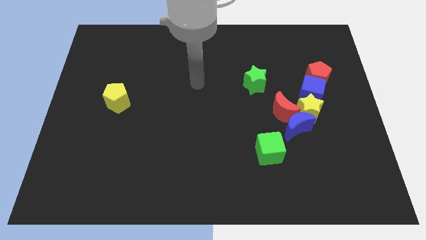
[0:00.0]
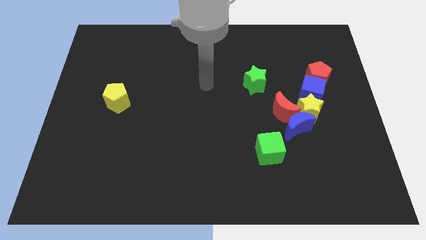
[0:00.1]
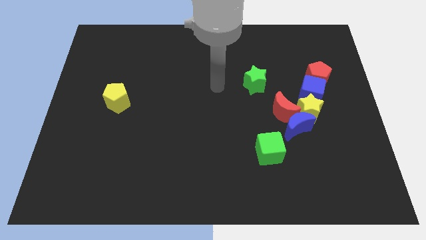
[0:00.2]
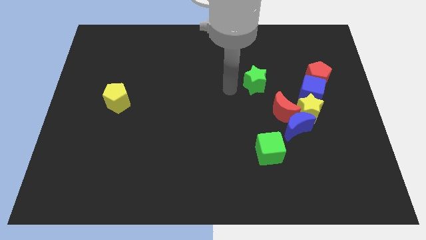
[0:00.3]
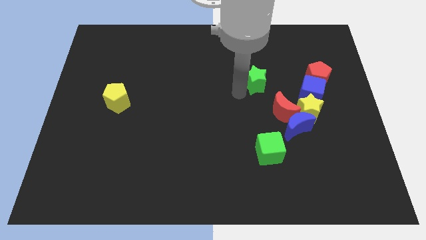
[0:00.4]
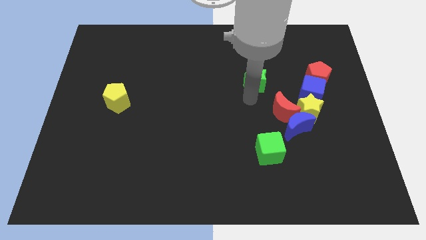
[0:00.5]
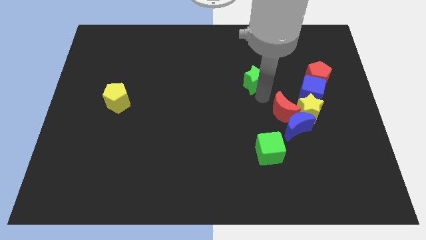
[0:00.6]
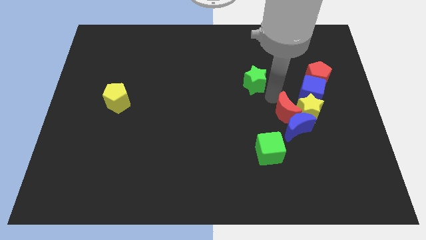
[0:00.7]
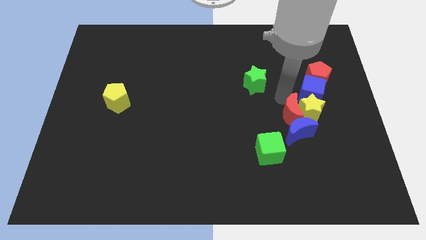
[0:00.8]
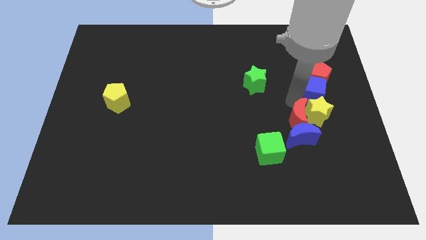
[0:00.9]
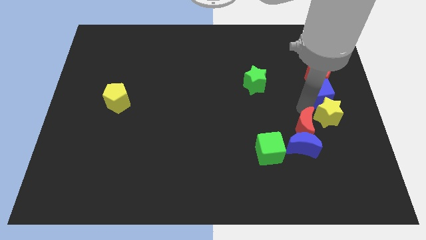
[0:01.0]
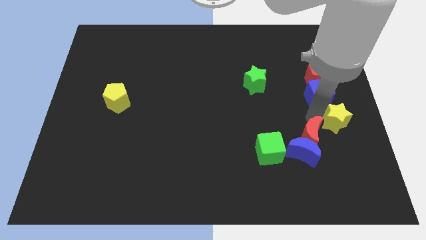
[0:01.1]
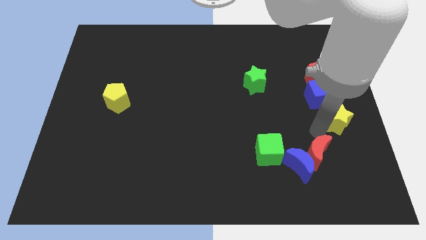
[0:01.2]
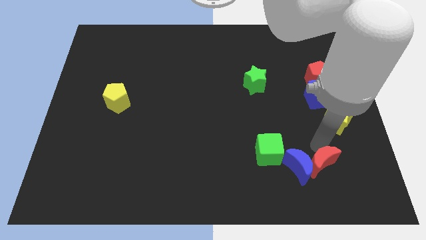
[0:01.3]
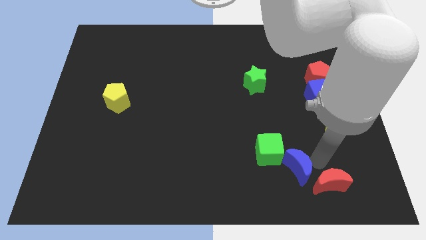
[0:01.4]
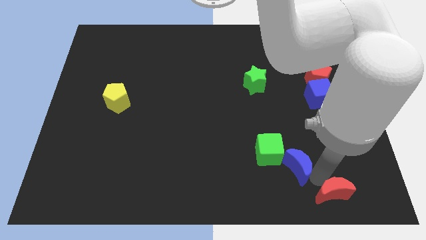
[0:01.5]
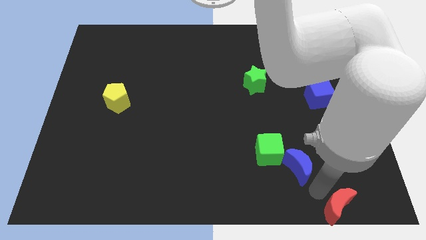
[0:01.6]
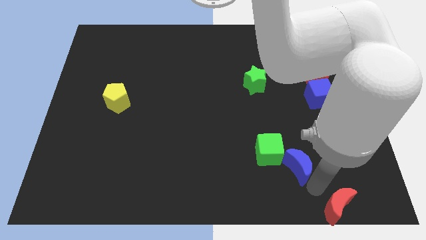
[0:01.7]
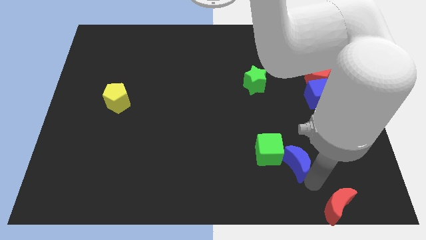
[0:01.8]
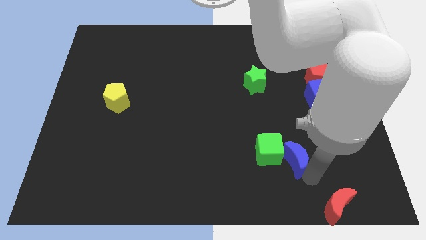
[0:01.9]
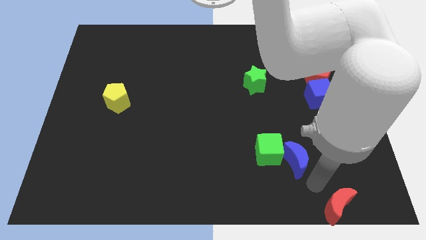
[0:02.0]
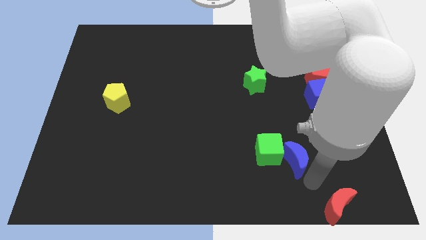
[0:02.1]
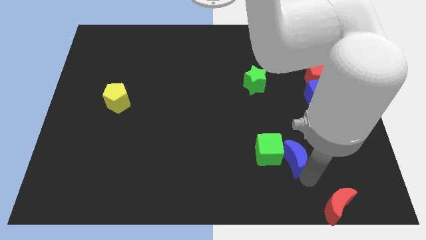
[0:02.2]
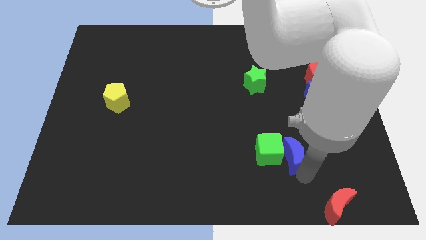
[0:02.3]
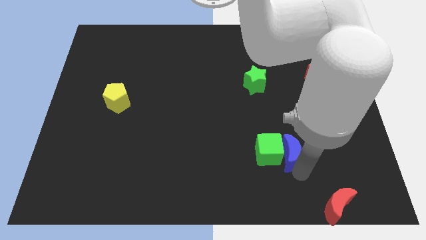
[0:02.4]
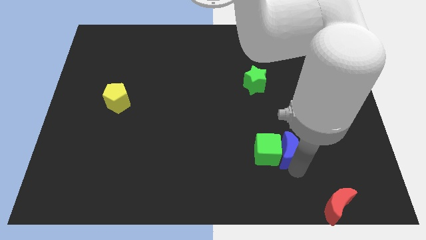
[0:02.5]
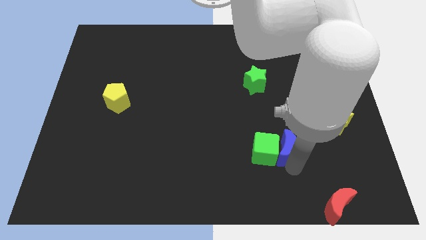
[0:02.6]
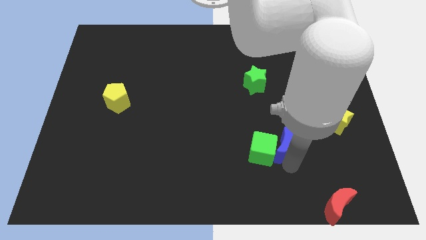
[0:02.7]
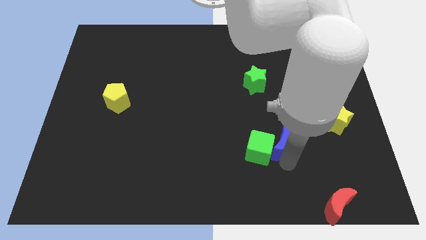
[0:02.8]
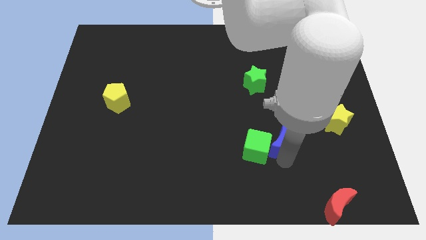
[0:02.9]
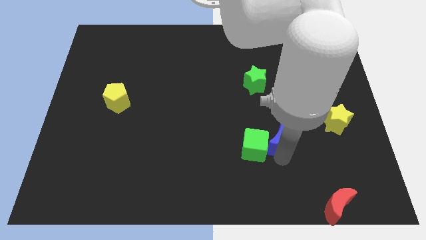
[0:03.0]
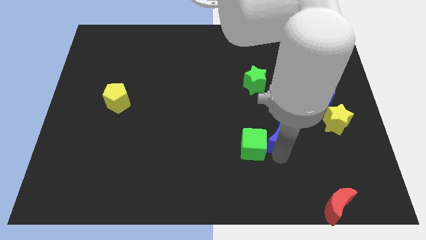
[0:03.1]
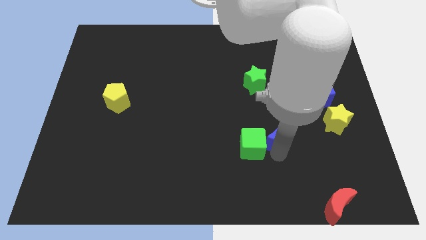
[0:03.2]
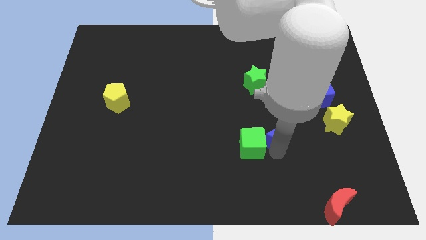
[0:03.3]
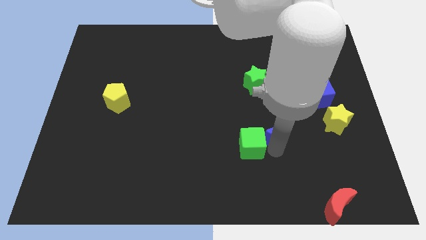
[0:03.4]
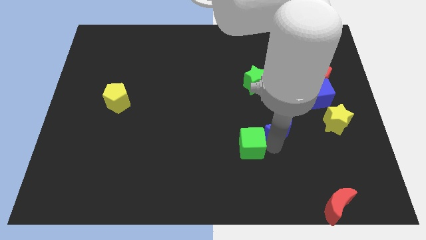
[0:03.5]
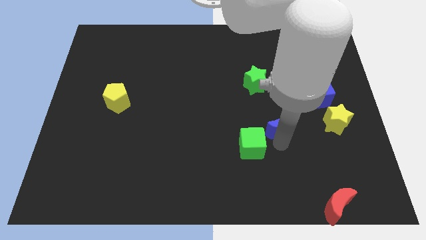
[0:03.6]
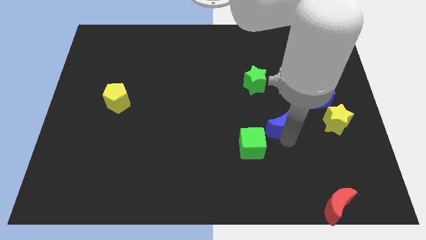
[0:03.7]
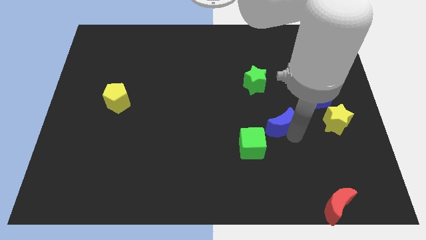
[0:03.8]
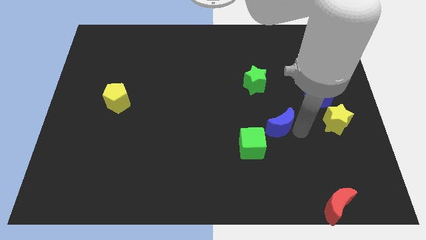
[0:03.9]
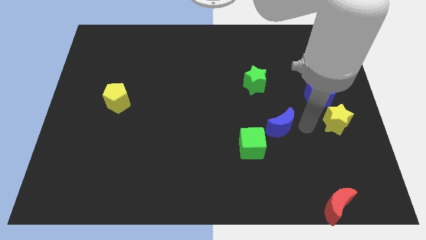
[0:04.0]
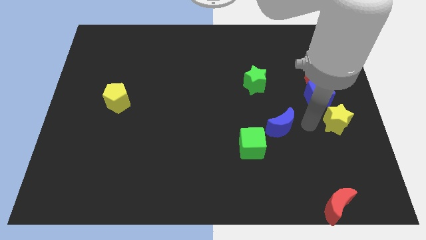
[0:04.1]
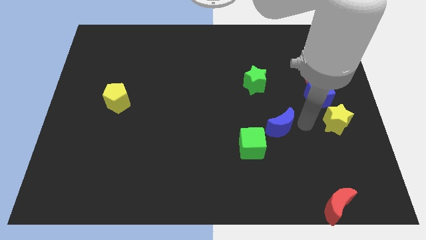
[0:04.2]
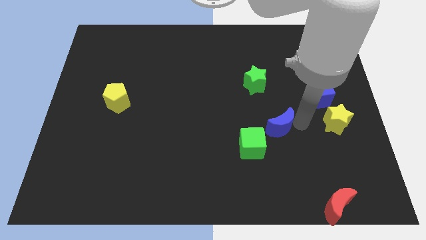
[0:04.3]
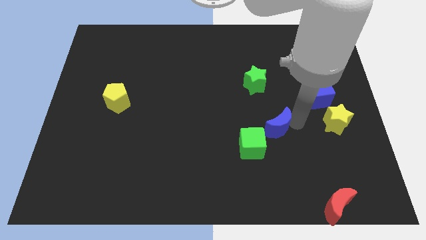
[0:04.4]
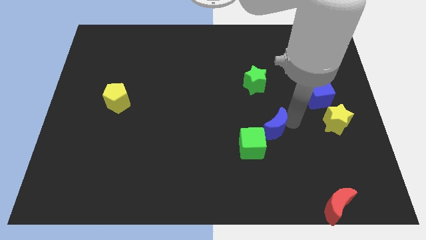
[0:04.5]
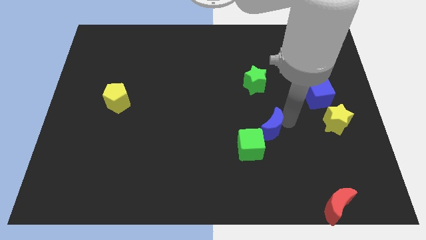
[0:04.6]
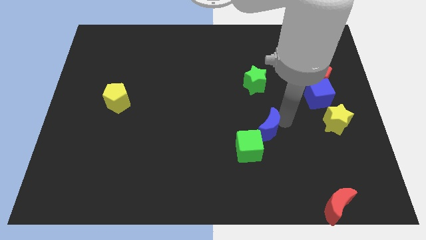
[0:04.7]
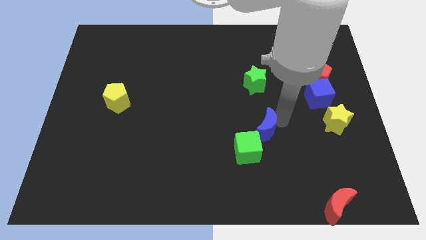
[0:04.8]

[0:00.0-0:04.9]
slide the blue moon a little bit left

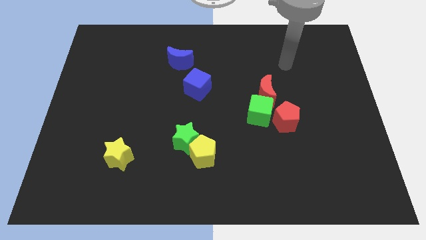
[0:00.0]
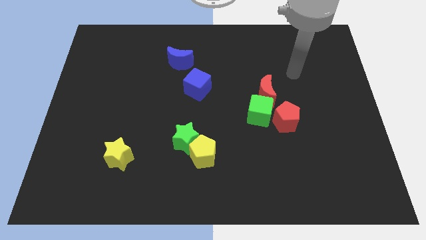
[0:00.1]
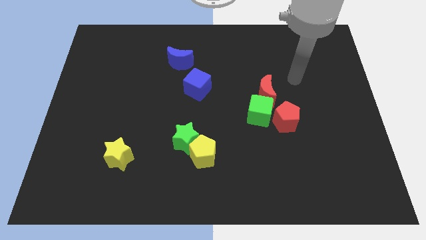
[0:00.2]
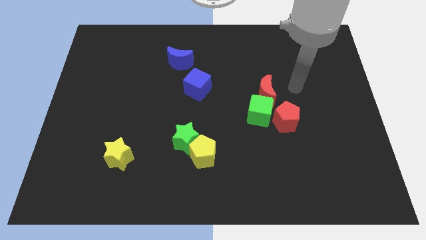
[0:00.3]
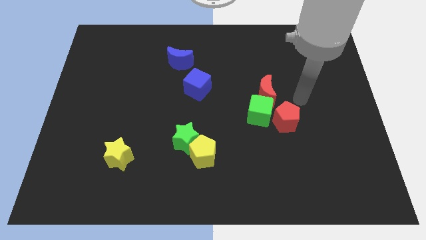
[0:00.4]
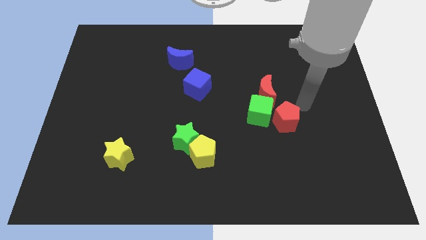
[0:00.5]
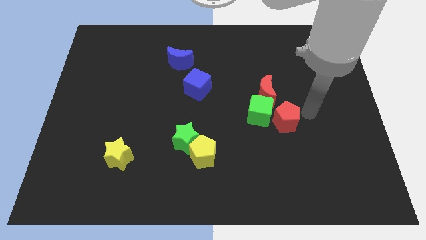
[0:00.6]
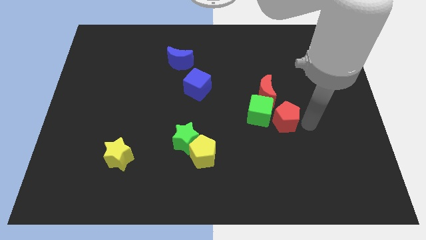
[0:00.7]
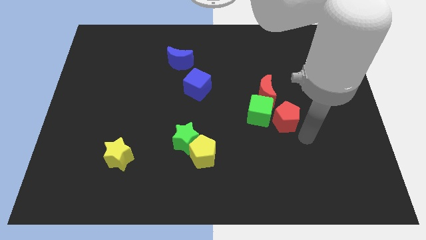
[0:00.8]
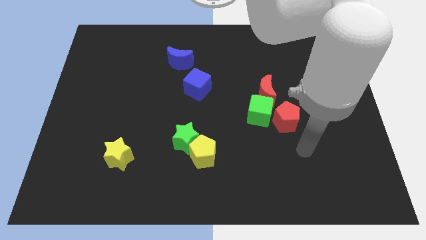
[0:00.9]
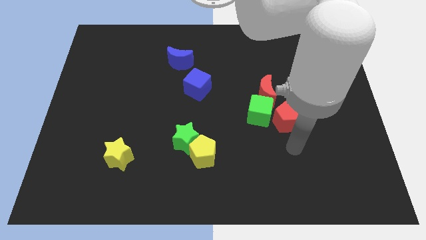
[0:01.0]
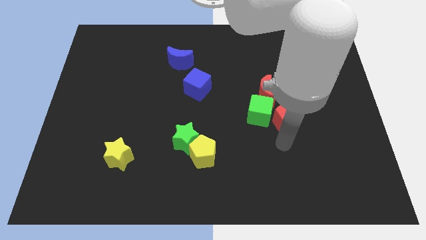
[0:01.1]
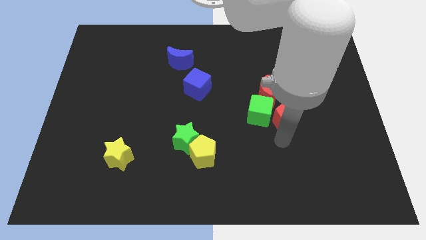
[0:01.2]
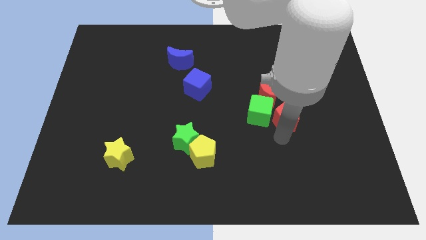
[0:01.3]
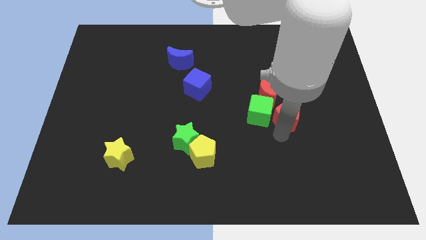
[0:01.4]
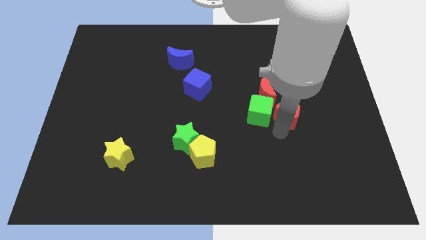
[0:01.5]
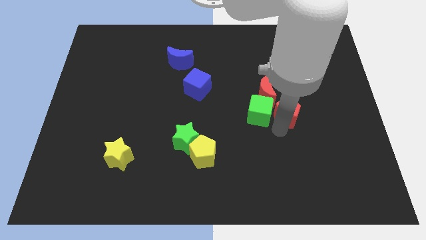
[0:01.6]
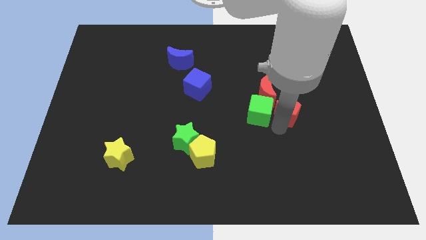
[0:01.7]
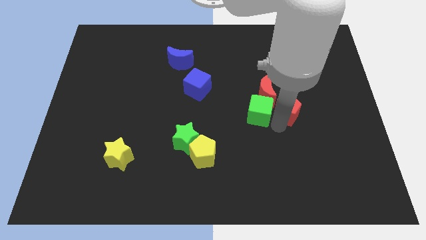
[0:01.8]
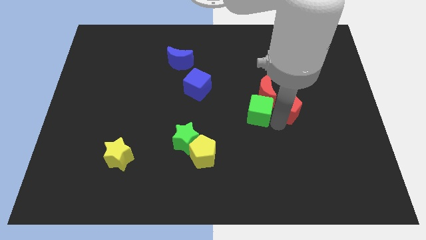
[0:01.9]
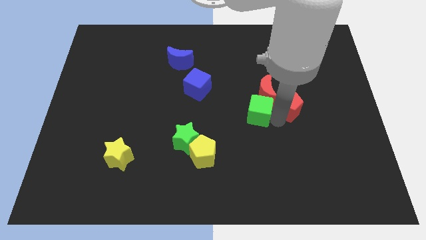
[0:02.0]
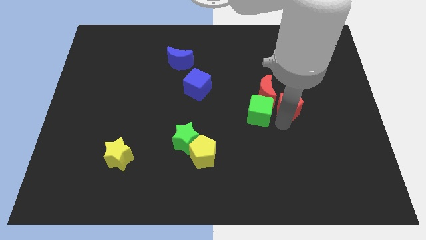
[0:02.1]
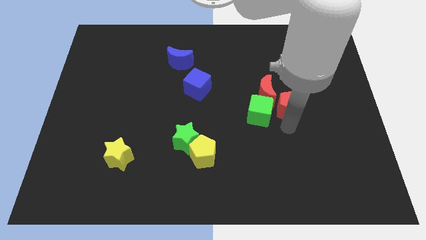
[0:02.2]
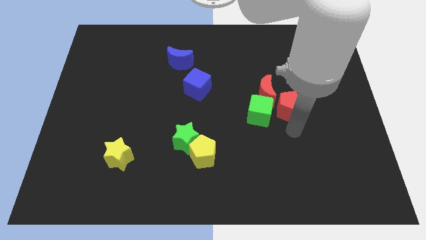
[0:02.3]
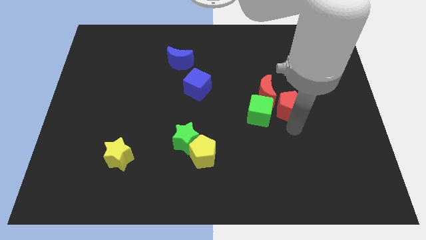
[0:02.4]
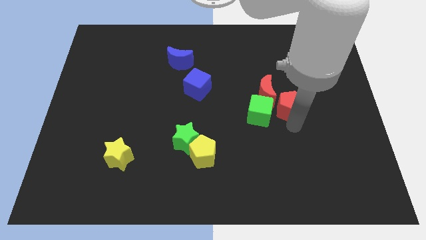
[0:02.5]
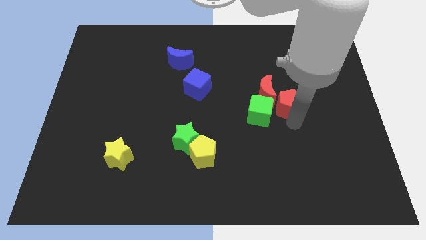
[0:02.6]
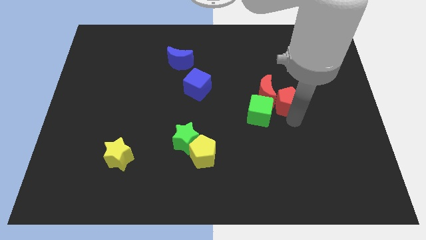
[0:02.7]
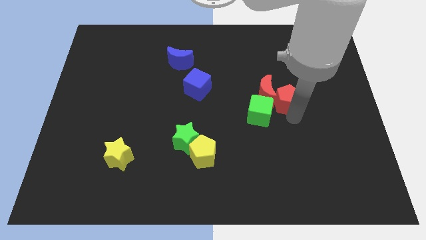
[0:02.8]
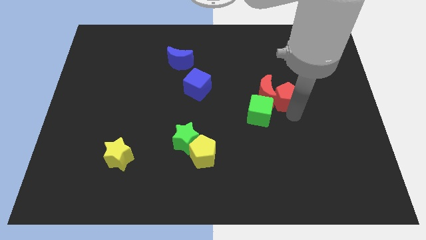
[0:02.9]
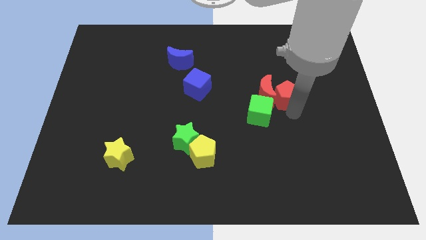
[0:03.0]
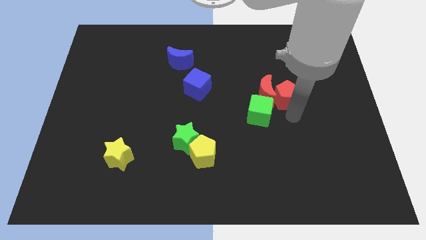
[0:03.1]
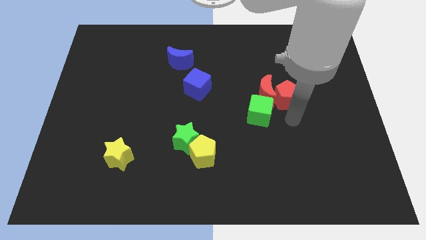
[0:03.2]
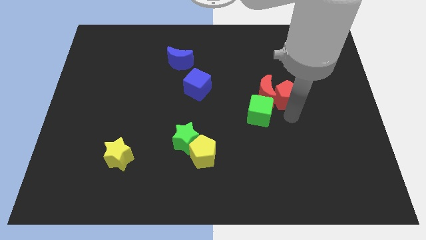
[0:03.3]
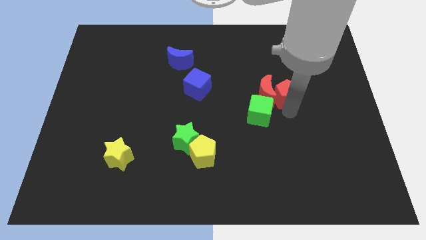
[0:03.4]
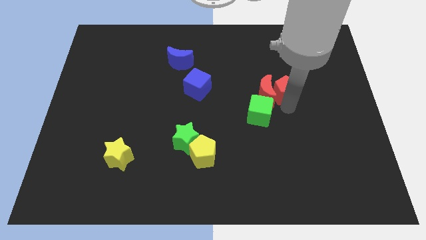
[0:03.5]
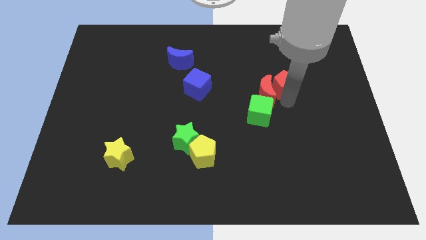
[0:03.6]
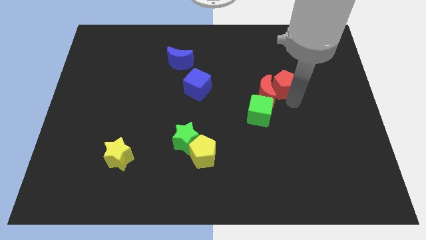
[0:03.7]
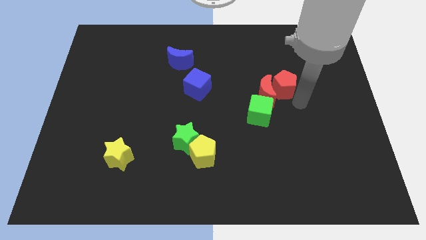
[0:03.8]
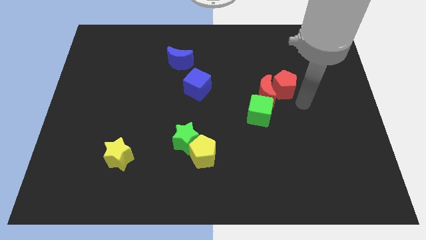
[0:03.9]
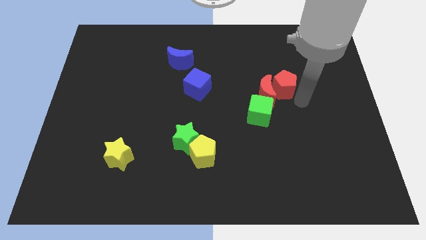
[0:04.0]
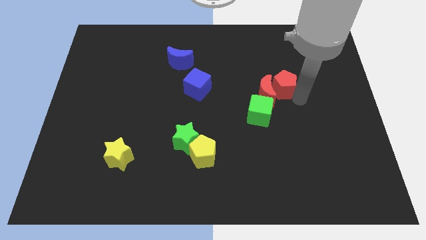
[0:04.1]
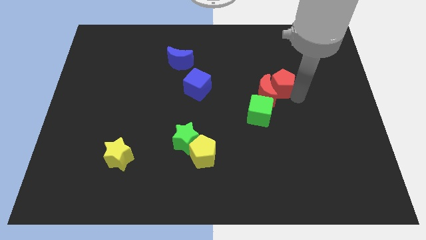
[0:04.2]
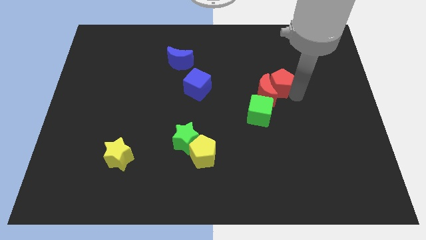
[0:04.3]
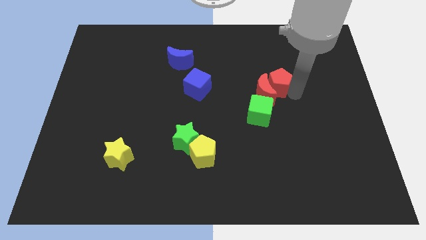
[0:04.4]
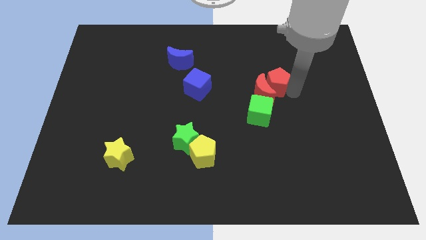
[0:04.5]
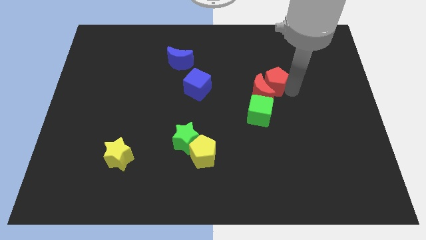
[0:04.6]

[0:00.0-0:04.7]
slide the red pentagon up and then to the left a little
